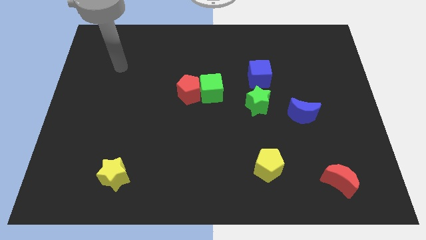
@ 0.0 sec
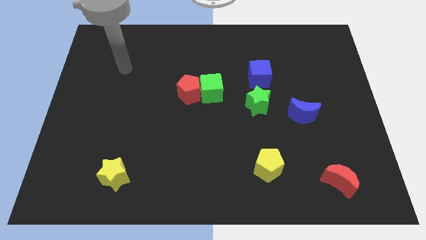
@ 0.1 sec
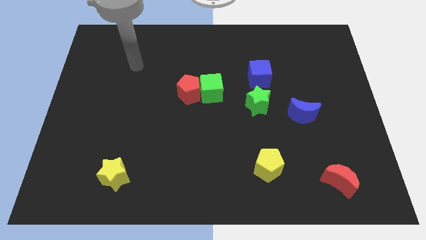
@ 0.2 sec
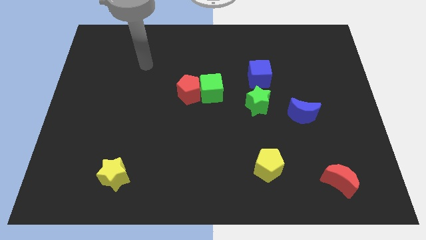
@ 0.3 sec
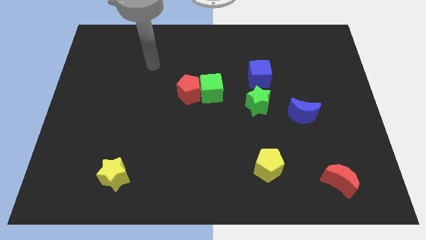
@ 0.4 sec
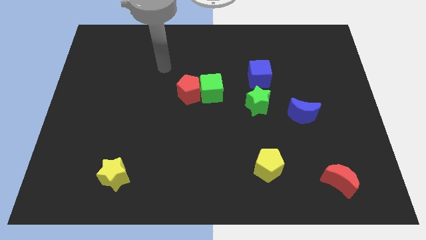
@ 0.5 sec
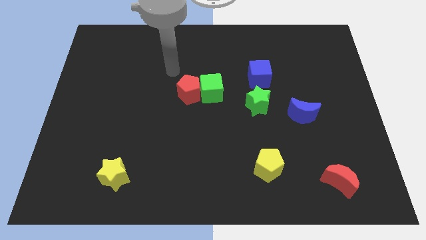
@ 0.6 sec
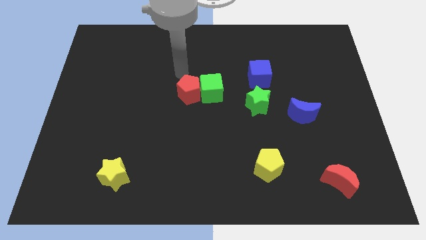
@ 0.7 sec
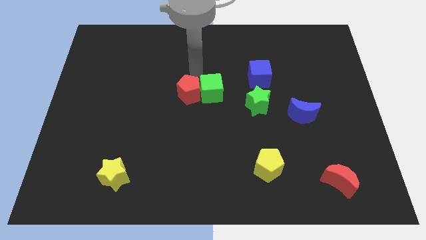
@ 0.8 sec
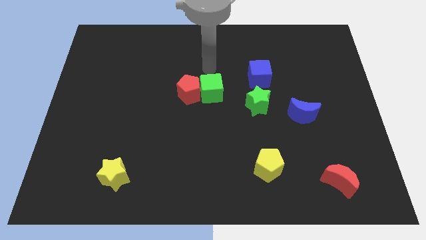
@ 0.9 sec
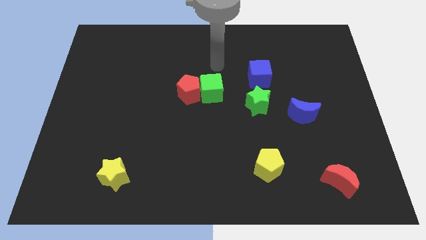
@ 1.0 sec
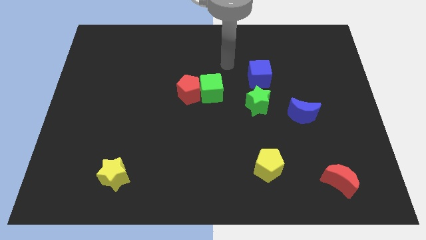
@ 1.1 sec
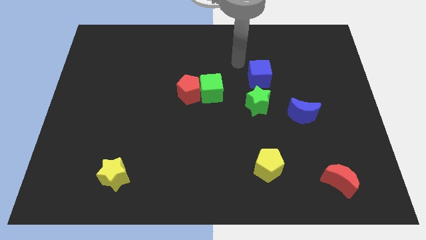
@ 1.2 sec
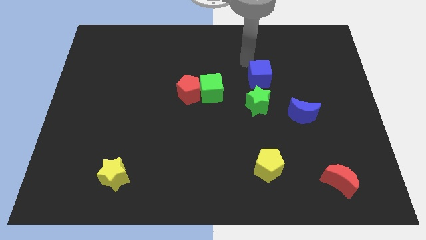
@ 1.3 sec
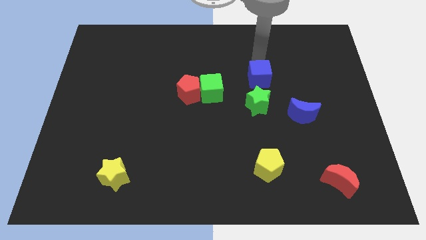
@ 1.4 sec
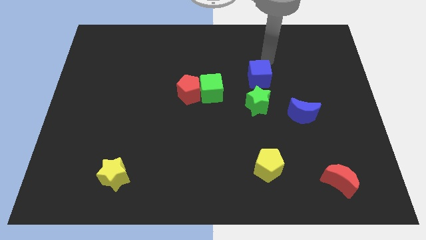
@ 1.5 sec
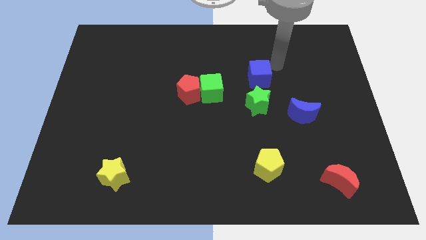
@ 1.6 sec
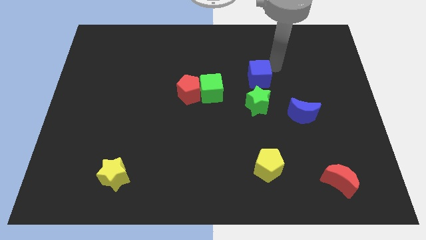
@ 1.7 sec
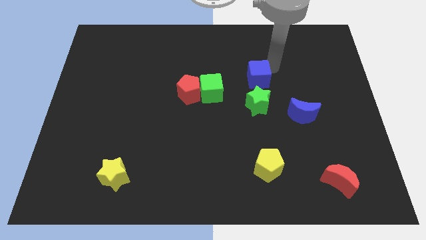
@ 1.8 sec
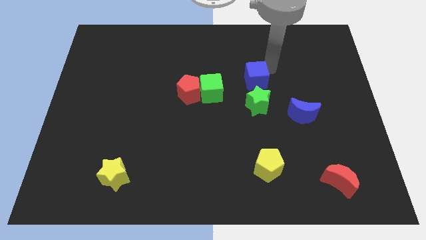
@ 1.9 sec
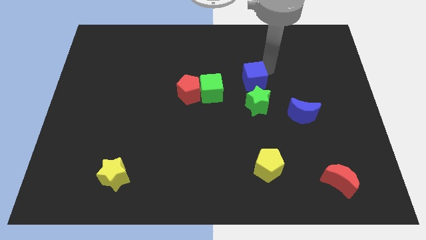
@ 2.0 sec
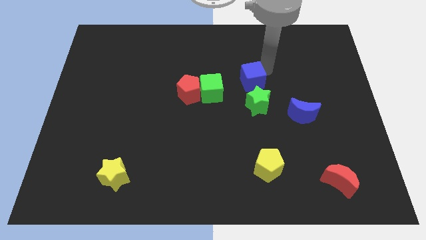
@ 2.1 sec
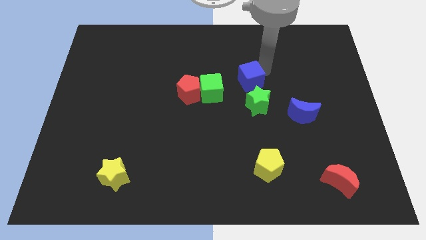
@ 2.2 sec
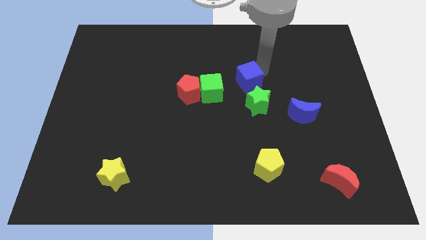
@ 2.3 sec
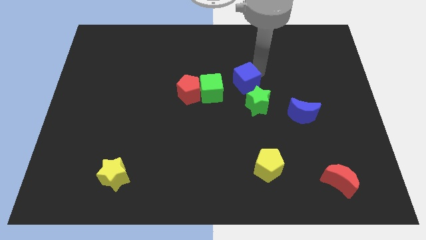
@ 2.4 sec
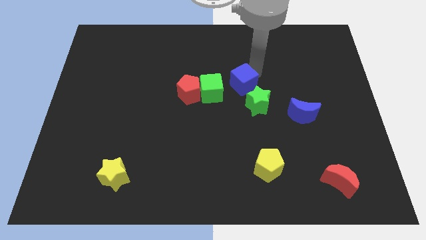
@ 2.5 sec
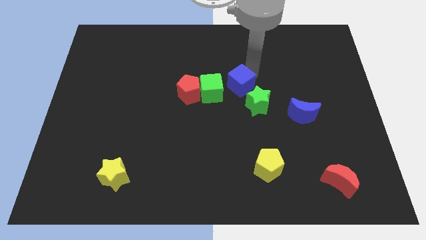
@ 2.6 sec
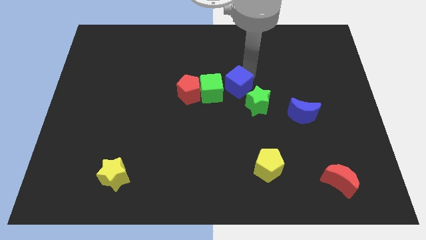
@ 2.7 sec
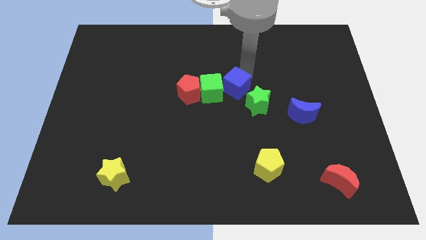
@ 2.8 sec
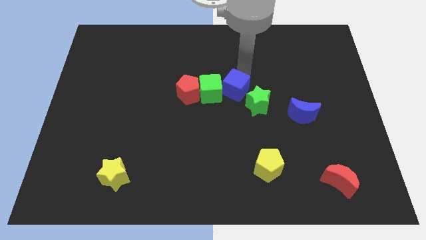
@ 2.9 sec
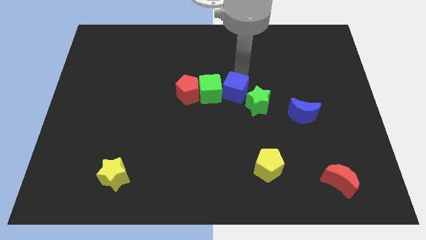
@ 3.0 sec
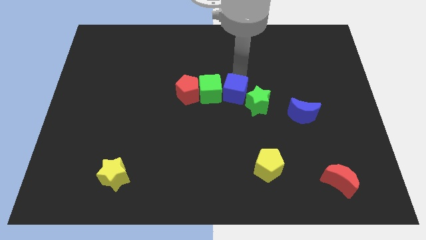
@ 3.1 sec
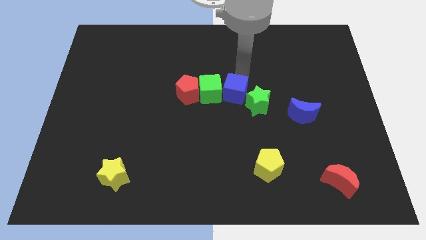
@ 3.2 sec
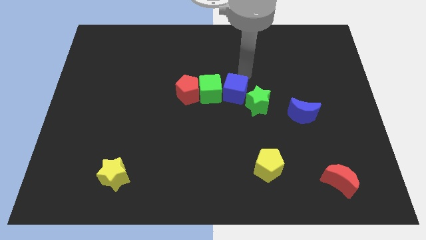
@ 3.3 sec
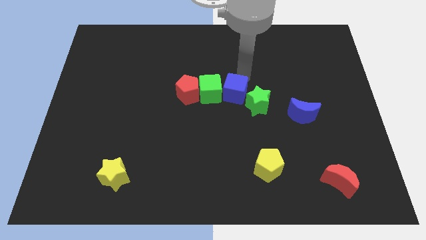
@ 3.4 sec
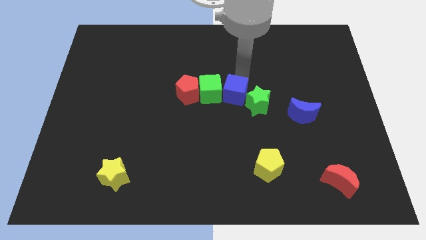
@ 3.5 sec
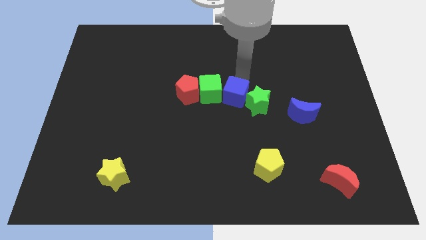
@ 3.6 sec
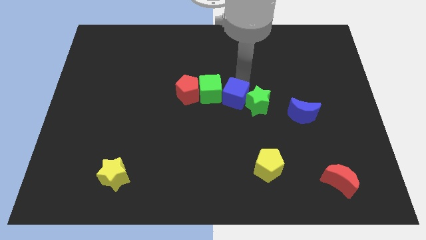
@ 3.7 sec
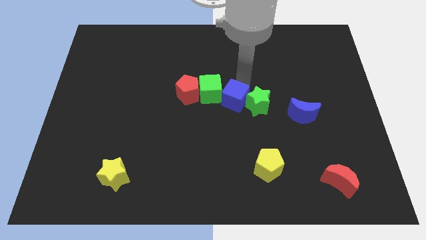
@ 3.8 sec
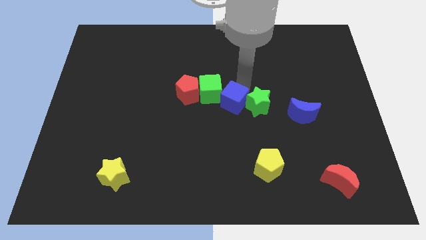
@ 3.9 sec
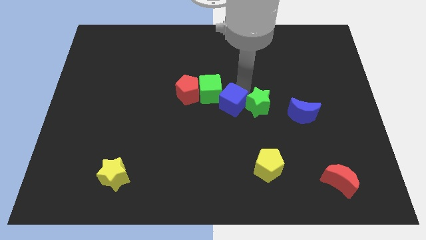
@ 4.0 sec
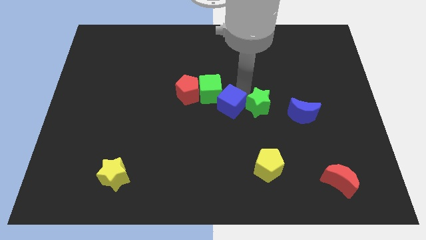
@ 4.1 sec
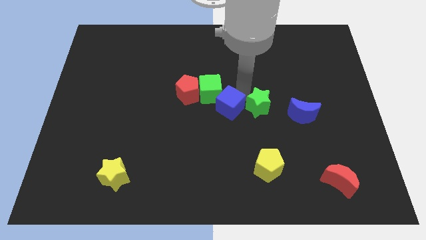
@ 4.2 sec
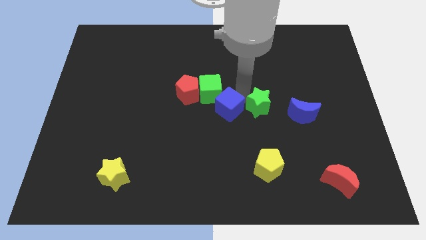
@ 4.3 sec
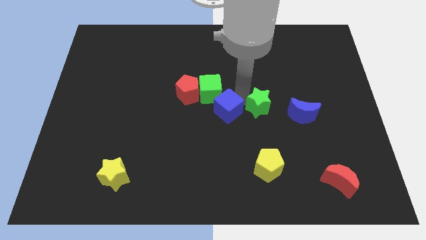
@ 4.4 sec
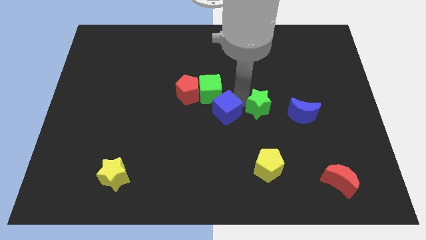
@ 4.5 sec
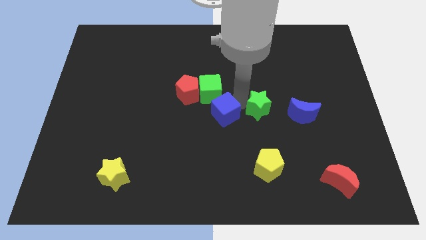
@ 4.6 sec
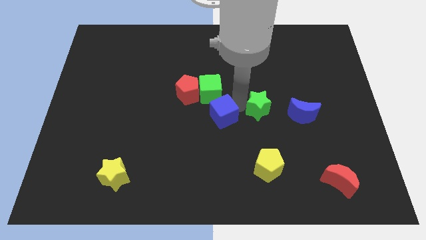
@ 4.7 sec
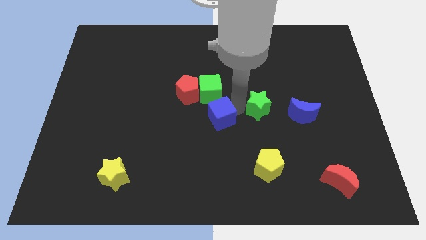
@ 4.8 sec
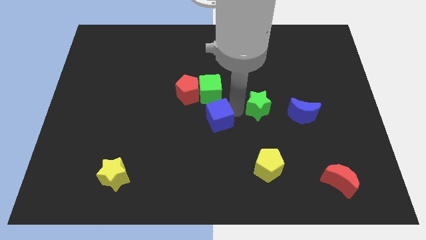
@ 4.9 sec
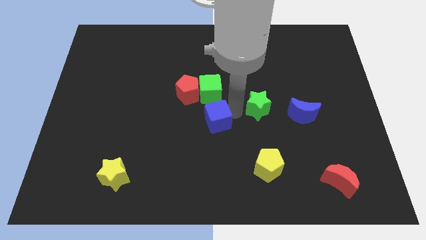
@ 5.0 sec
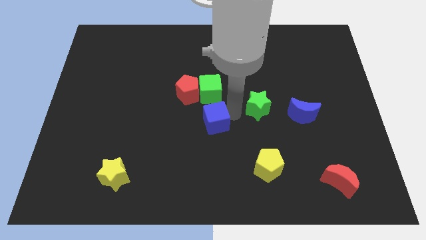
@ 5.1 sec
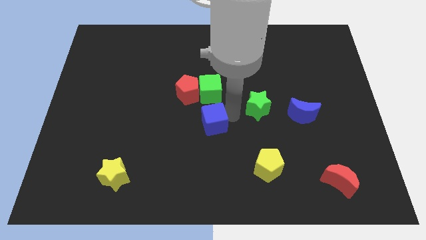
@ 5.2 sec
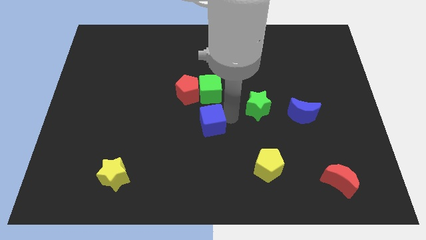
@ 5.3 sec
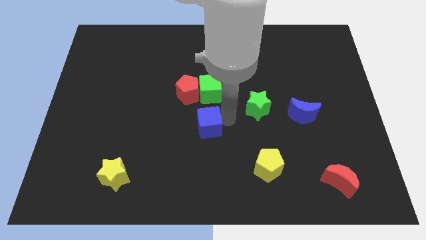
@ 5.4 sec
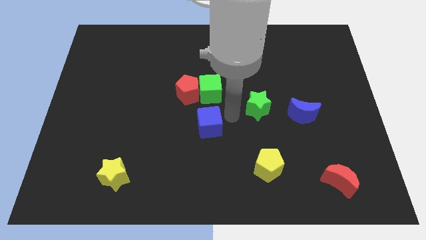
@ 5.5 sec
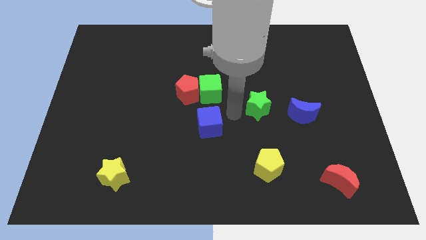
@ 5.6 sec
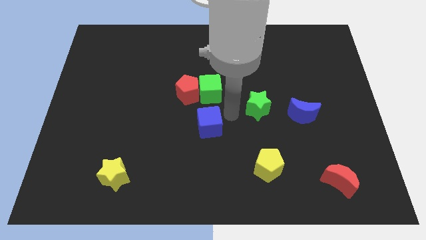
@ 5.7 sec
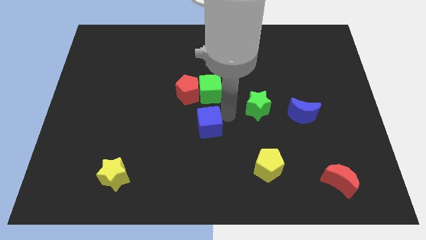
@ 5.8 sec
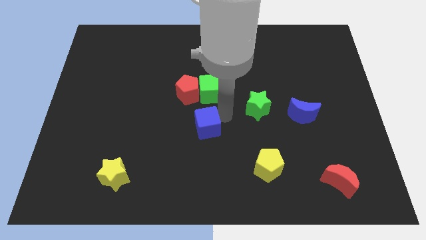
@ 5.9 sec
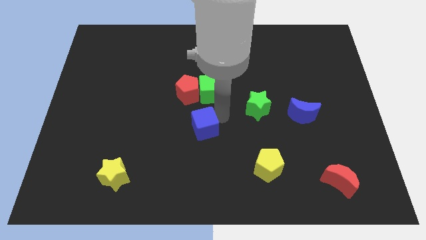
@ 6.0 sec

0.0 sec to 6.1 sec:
slide the blue cube diagonally down and to the left

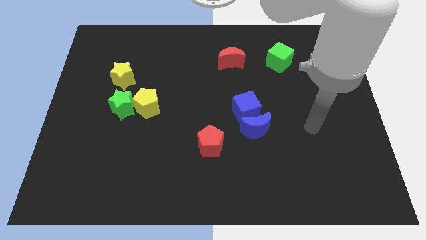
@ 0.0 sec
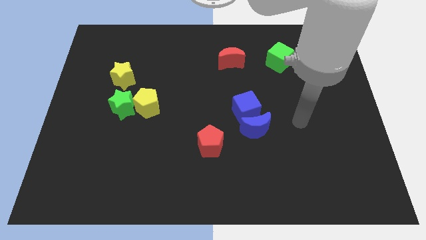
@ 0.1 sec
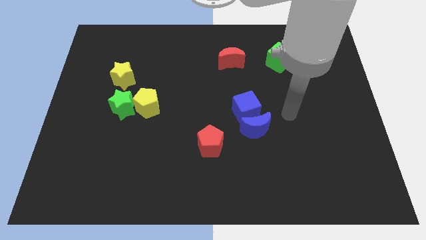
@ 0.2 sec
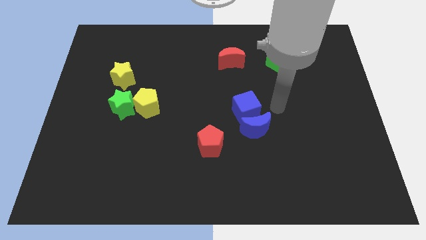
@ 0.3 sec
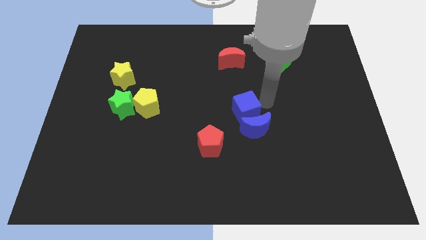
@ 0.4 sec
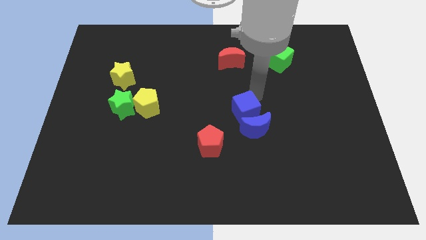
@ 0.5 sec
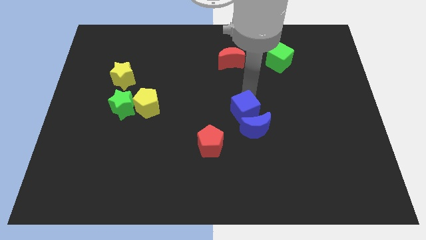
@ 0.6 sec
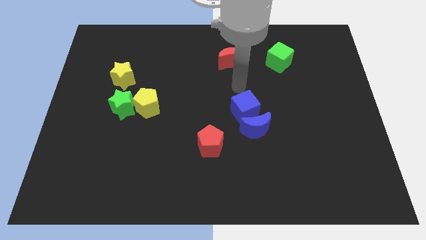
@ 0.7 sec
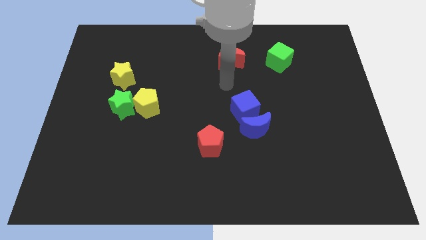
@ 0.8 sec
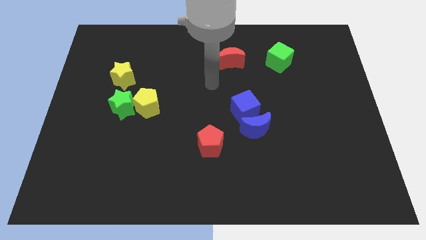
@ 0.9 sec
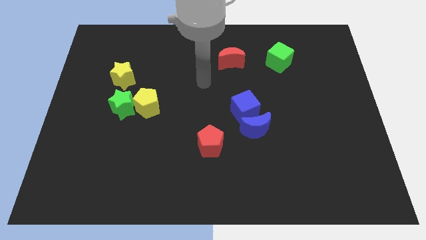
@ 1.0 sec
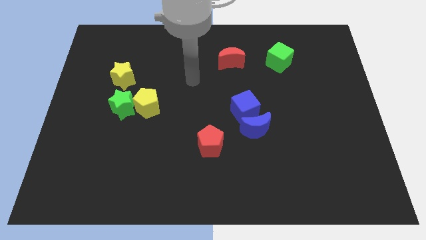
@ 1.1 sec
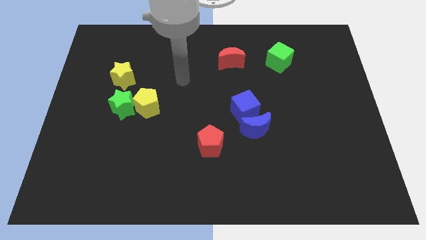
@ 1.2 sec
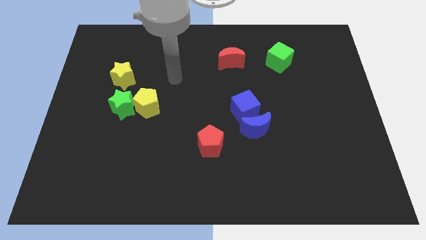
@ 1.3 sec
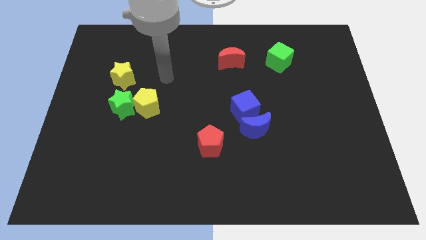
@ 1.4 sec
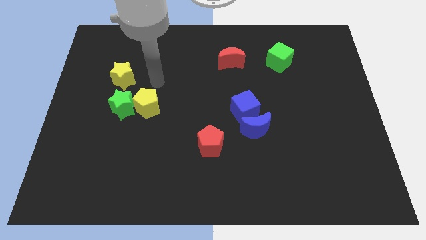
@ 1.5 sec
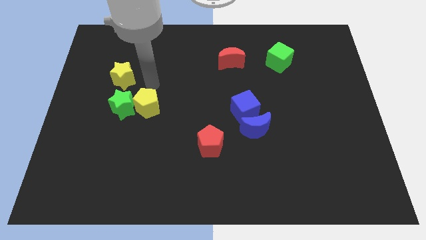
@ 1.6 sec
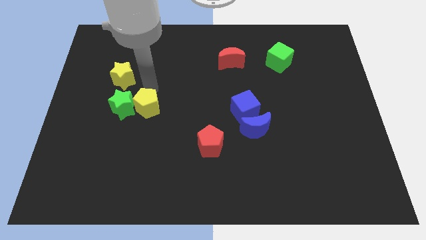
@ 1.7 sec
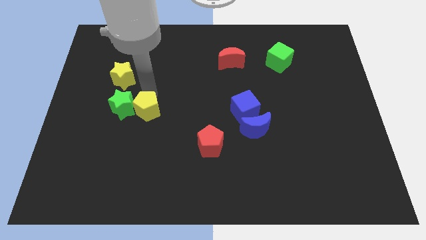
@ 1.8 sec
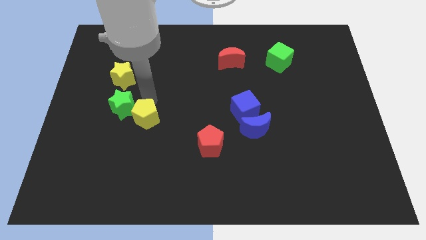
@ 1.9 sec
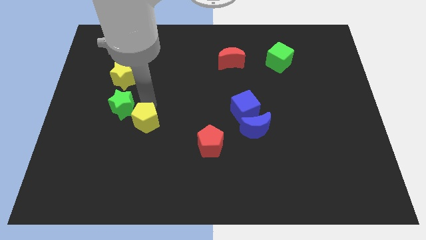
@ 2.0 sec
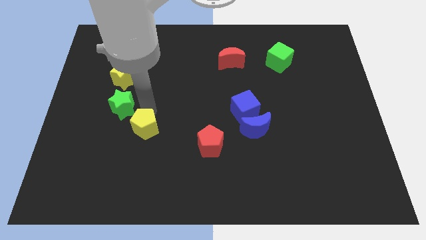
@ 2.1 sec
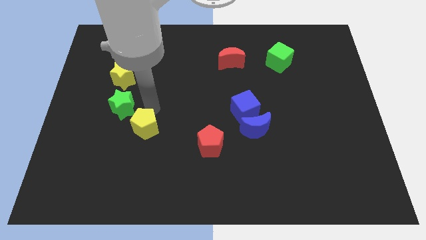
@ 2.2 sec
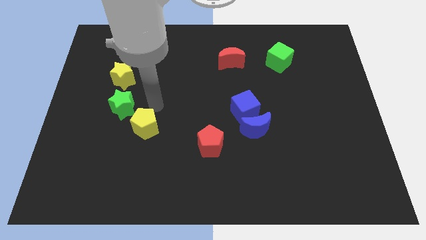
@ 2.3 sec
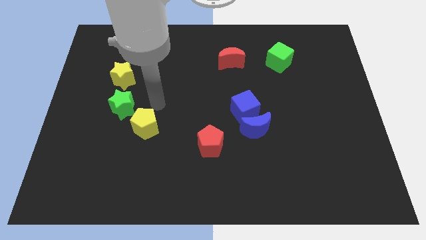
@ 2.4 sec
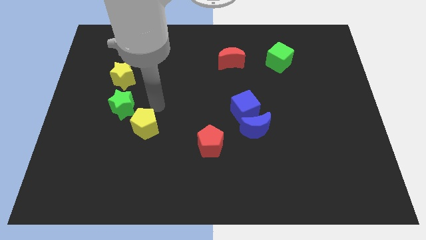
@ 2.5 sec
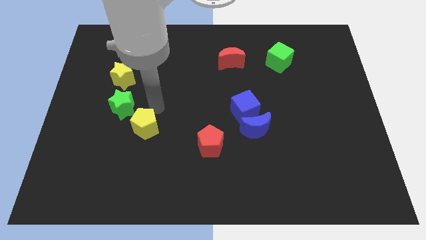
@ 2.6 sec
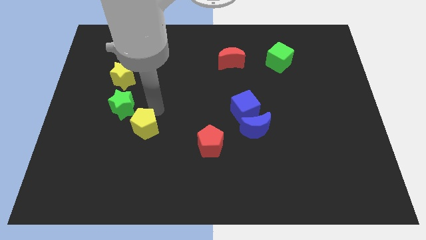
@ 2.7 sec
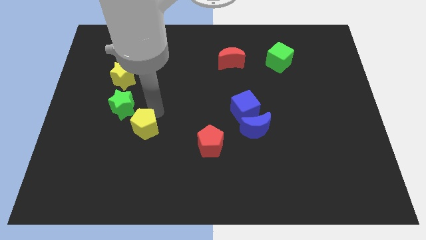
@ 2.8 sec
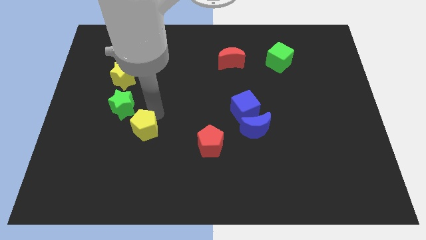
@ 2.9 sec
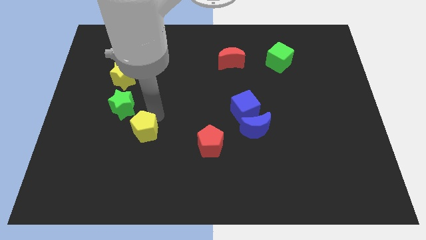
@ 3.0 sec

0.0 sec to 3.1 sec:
push the yellow pentagon downwards a little
